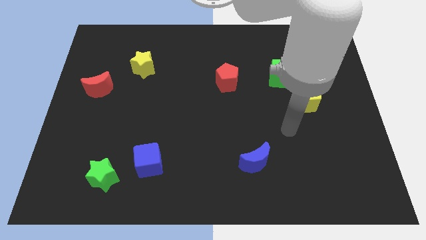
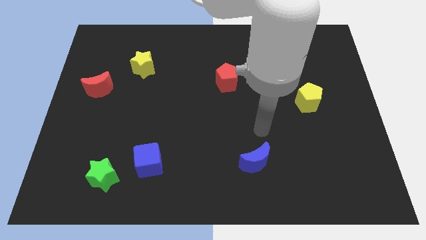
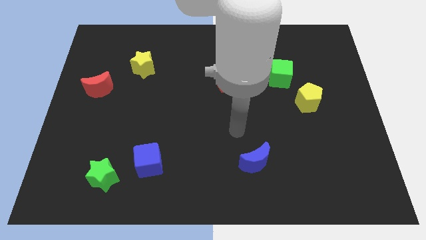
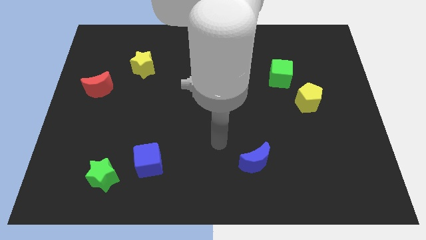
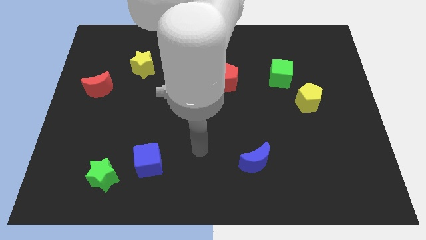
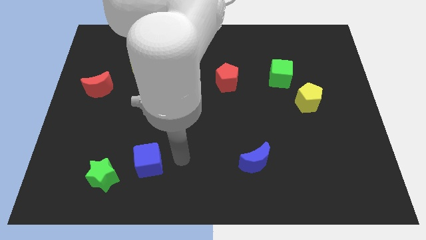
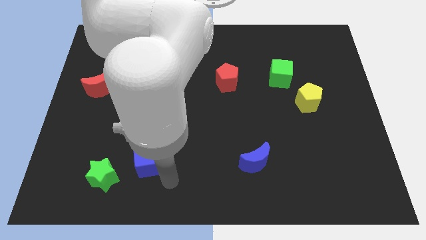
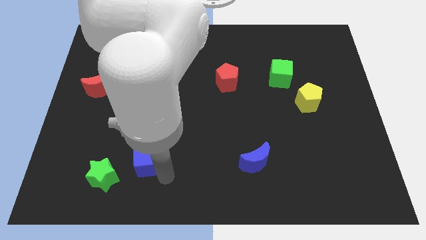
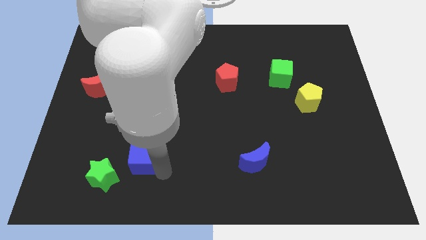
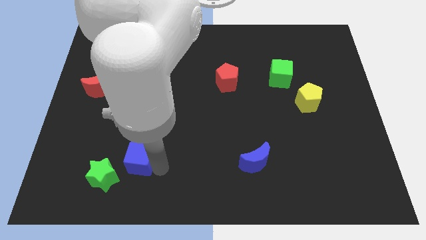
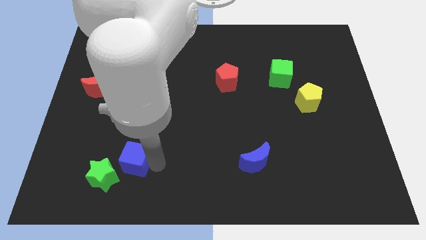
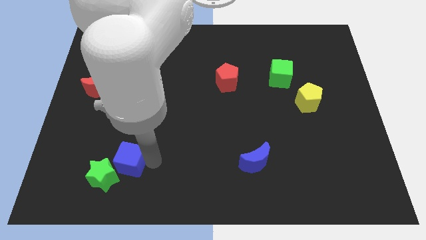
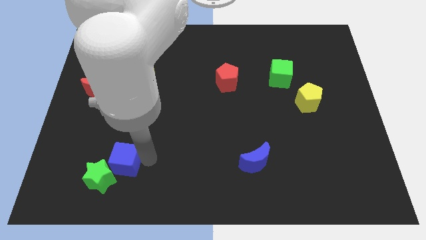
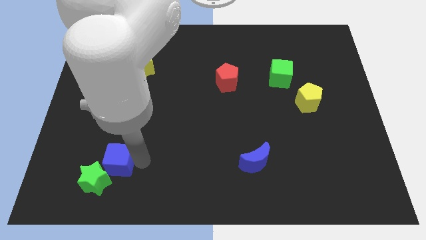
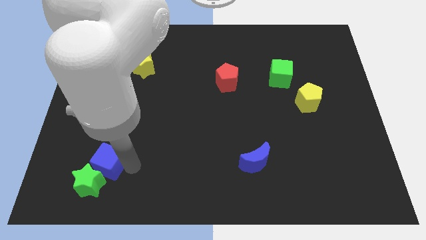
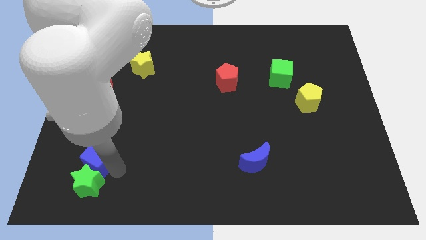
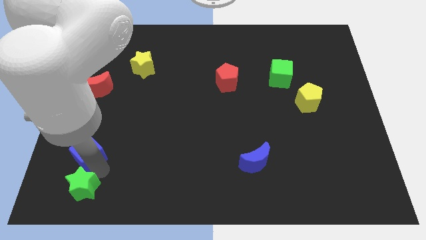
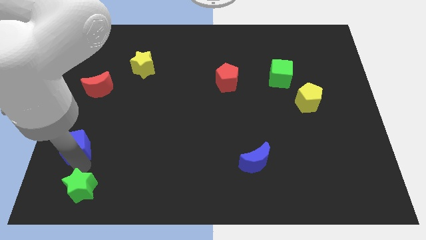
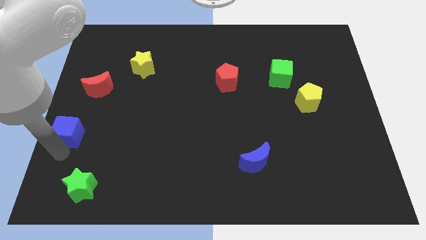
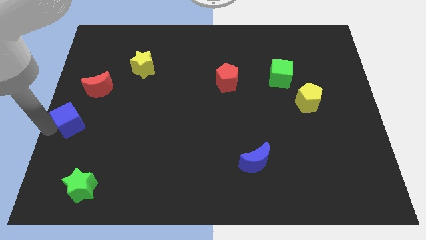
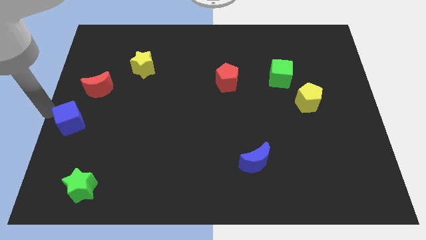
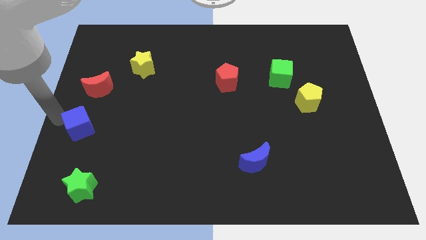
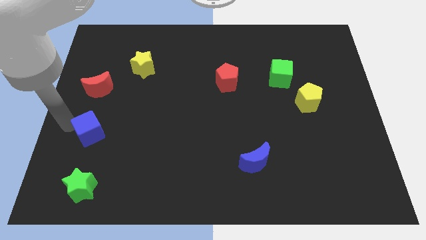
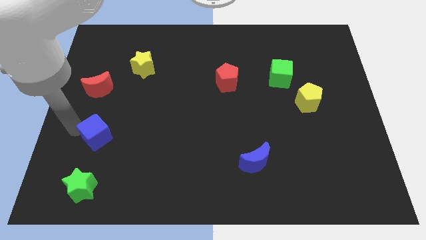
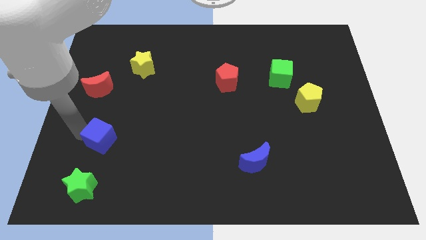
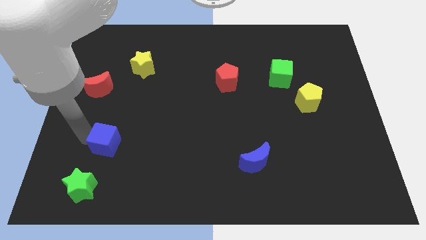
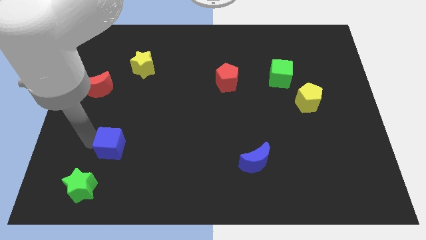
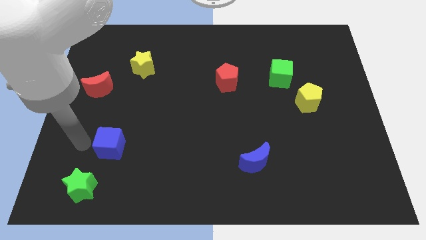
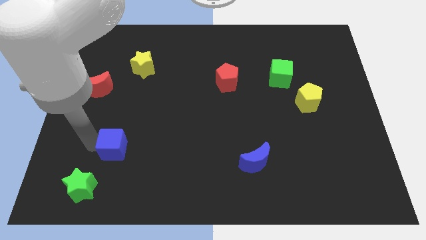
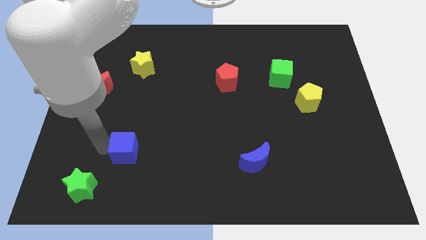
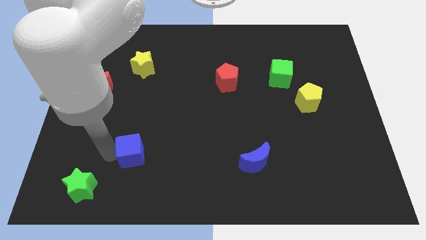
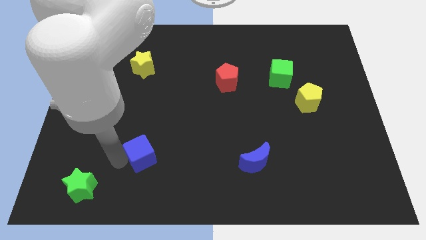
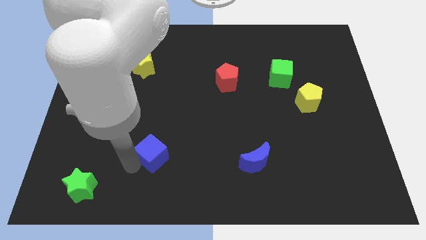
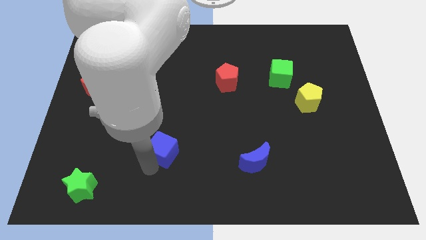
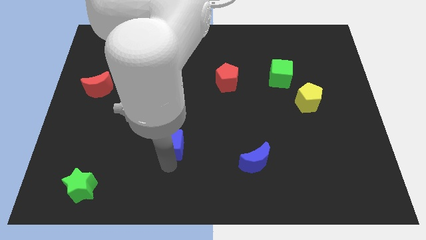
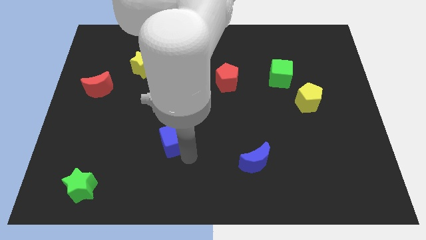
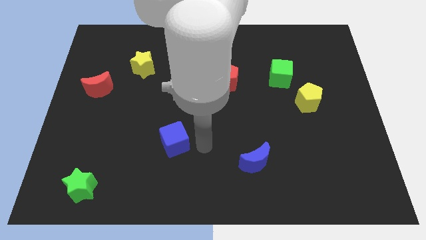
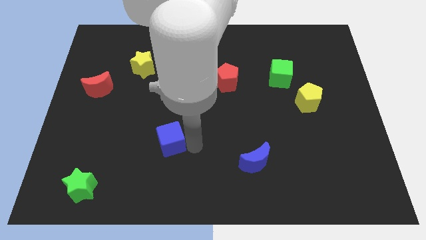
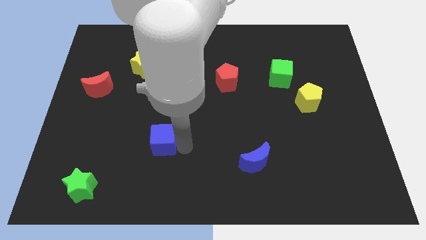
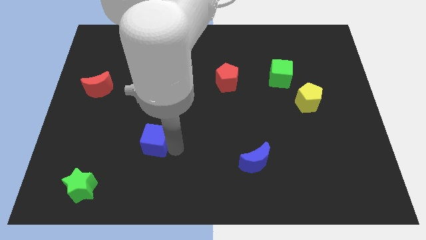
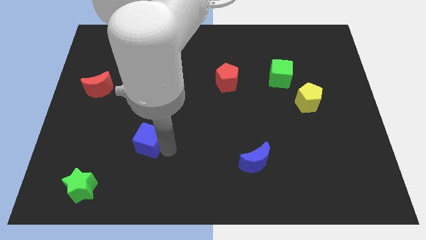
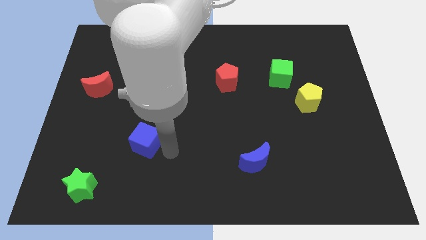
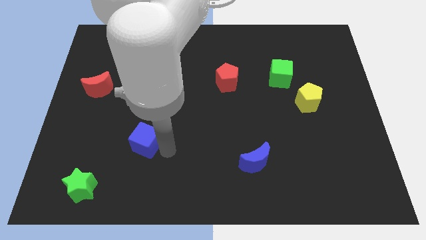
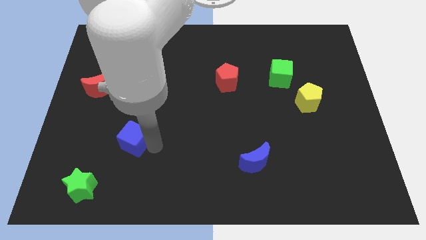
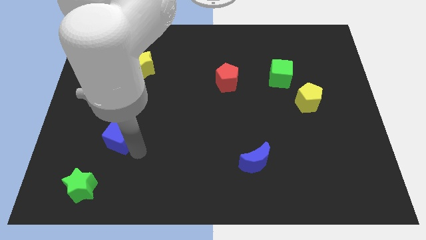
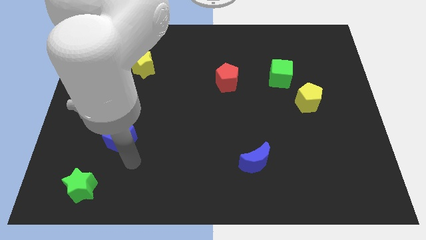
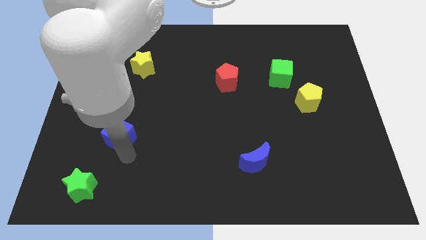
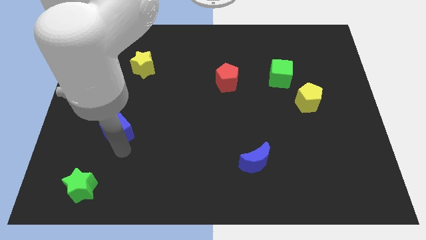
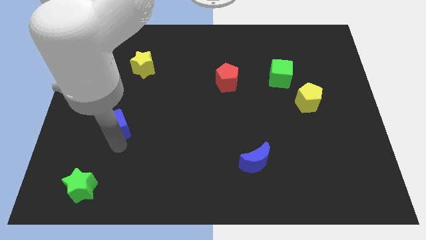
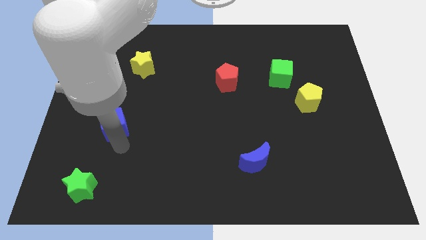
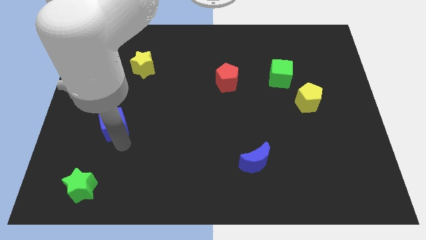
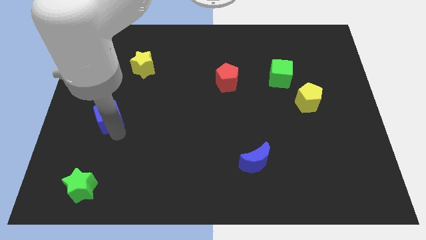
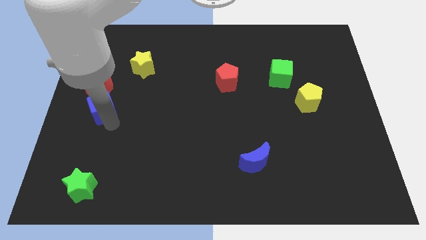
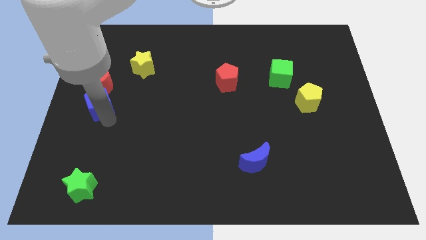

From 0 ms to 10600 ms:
slide the blue cube to the red moon
